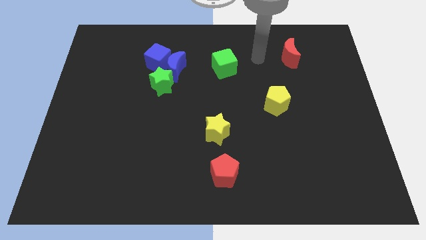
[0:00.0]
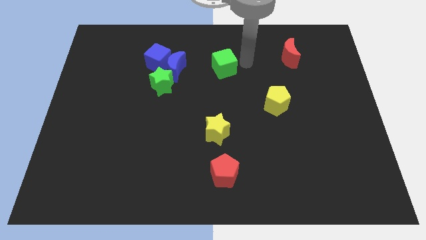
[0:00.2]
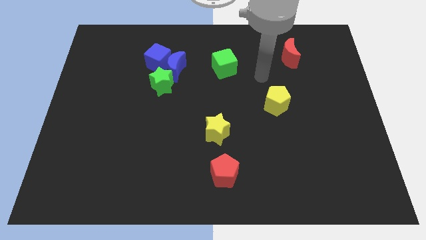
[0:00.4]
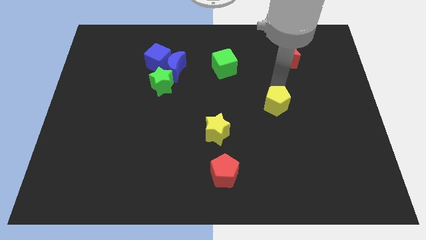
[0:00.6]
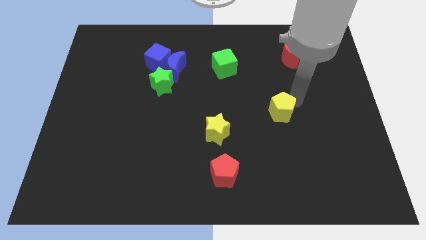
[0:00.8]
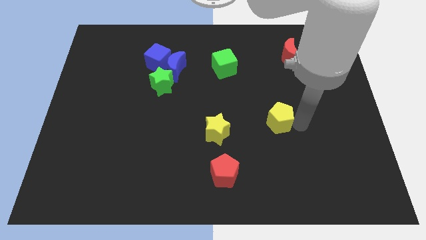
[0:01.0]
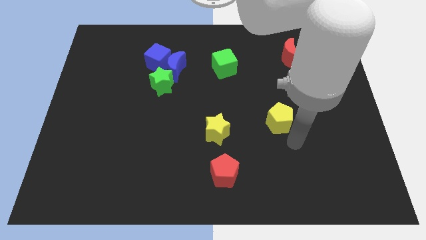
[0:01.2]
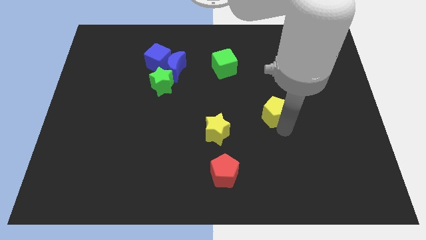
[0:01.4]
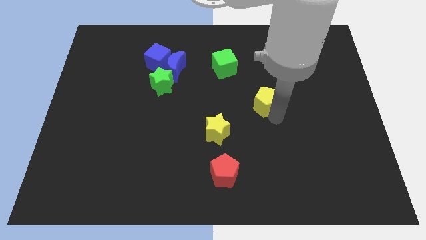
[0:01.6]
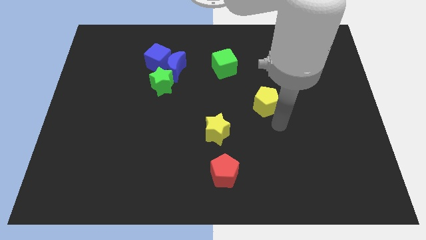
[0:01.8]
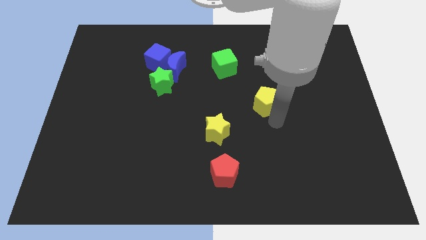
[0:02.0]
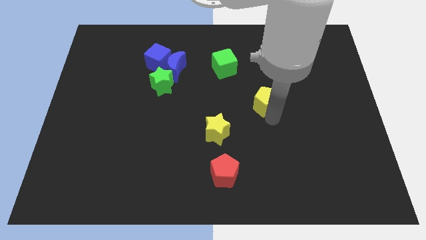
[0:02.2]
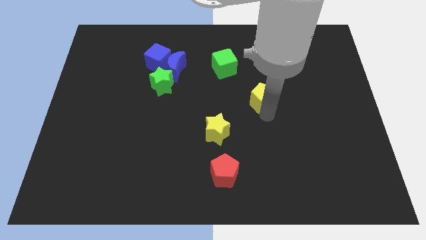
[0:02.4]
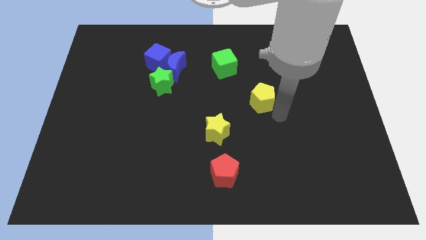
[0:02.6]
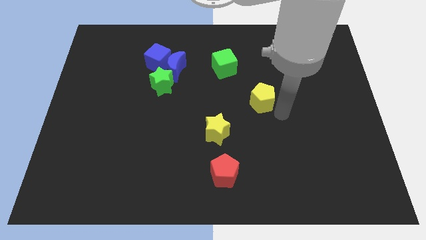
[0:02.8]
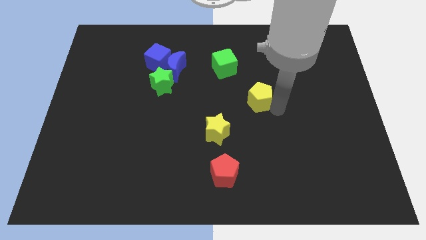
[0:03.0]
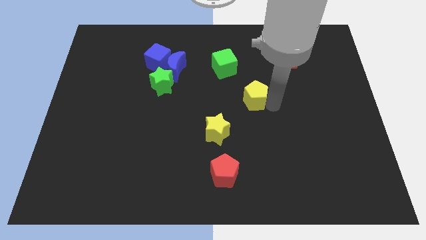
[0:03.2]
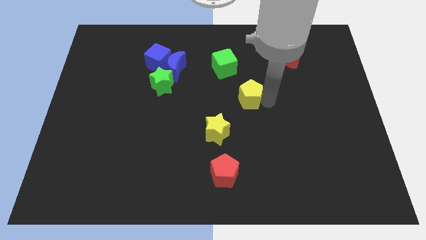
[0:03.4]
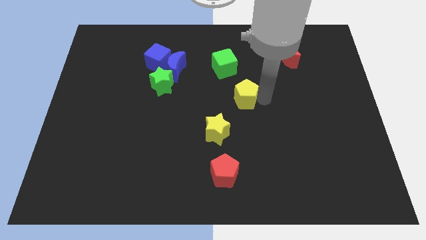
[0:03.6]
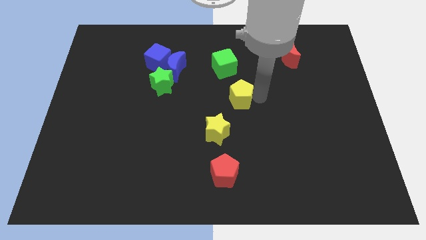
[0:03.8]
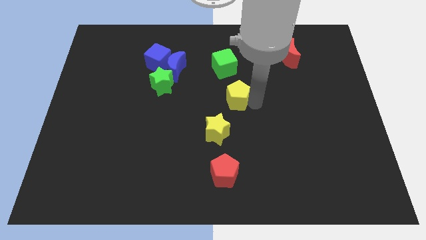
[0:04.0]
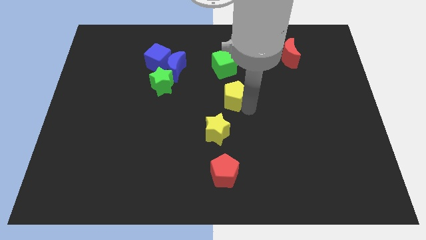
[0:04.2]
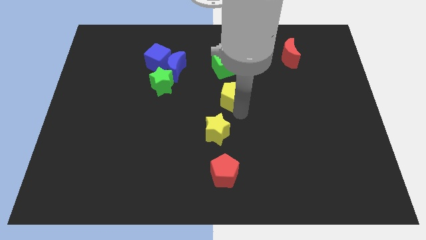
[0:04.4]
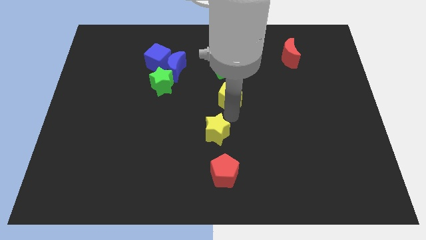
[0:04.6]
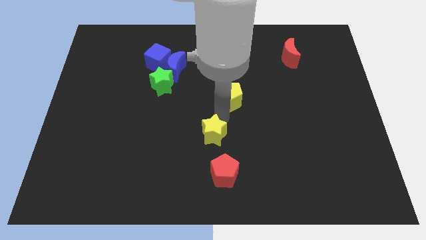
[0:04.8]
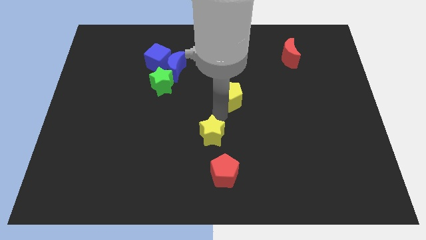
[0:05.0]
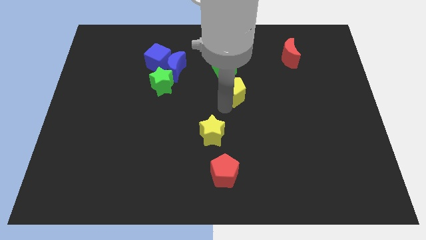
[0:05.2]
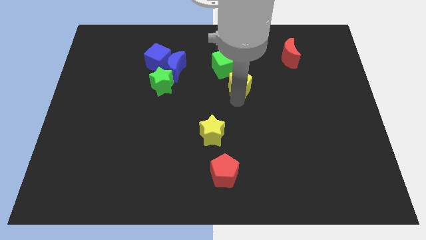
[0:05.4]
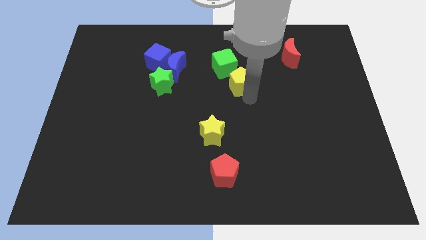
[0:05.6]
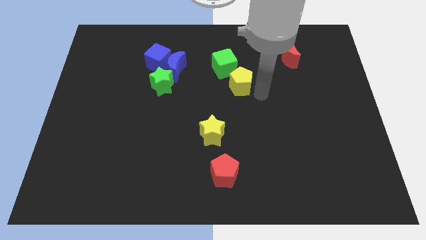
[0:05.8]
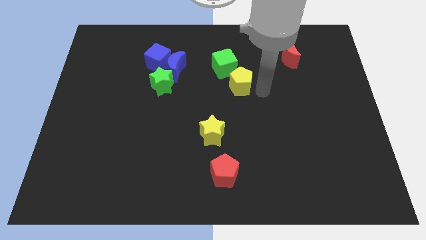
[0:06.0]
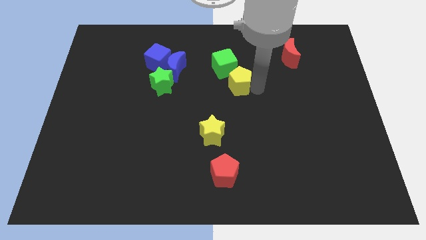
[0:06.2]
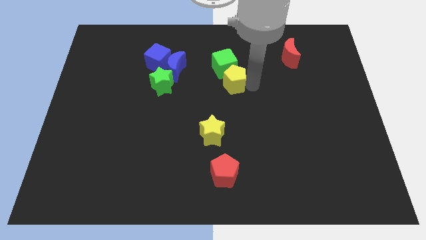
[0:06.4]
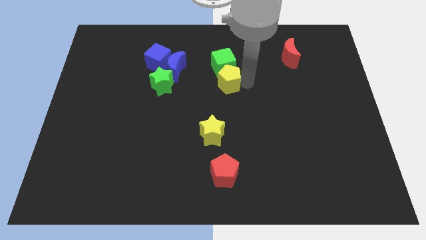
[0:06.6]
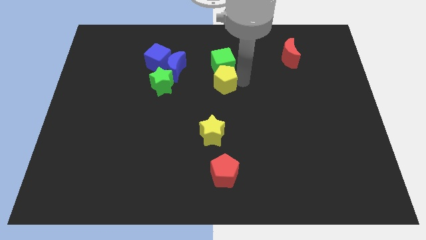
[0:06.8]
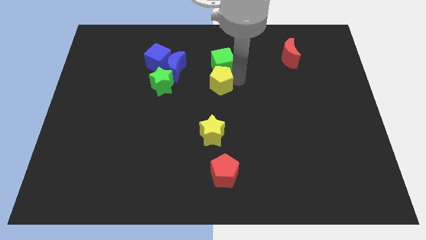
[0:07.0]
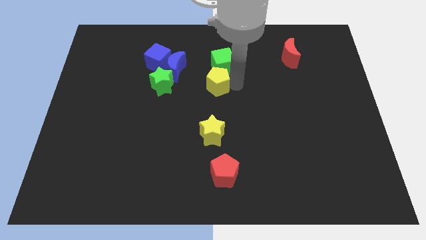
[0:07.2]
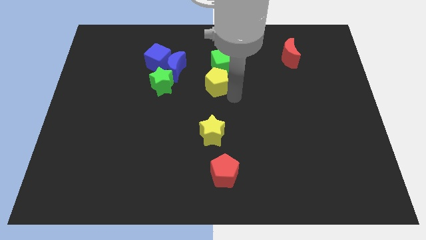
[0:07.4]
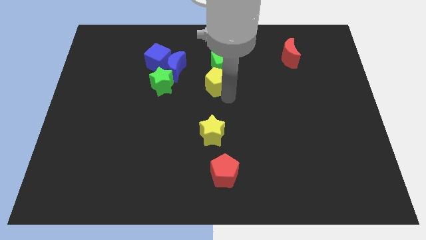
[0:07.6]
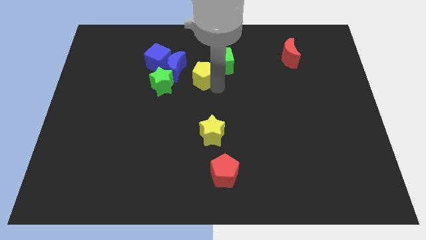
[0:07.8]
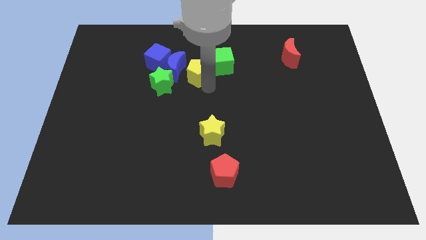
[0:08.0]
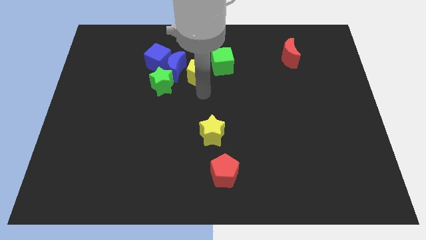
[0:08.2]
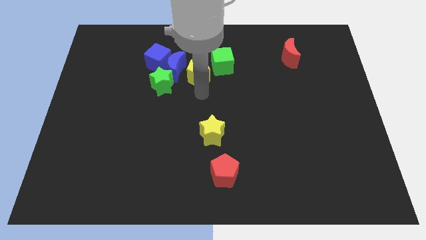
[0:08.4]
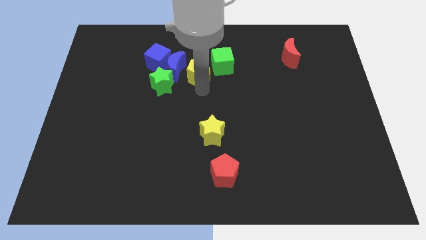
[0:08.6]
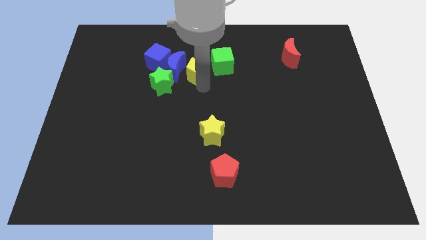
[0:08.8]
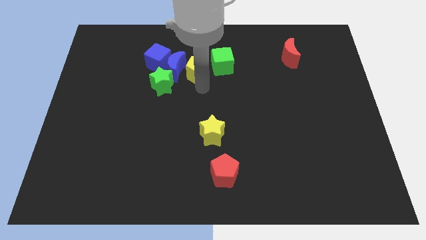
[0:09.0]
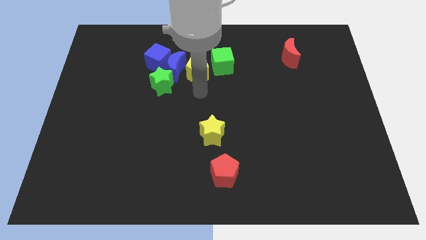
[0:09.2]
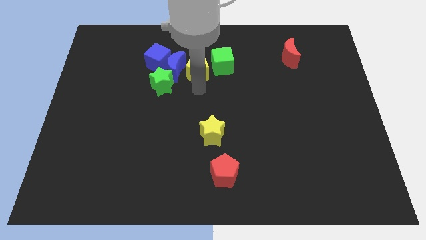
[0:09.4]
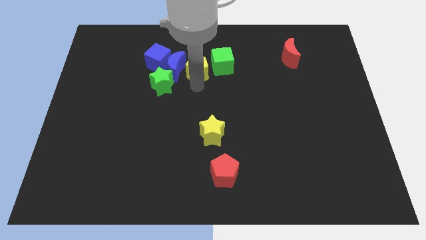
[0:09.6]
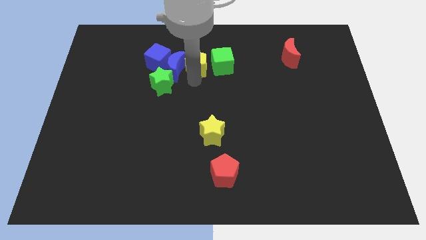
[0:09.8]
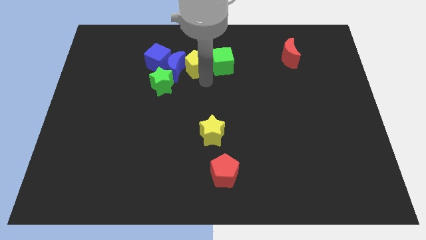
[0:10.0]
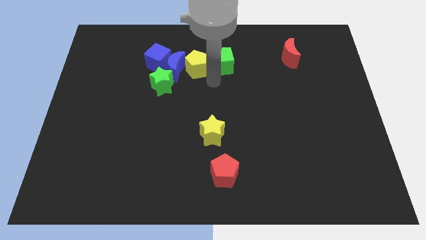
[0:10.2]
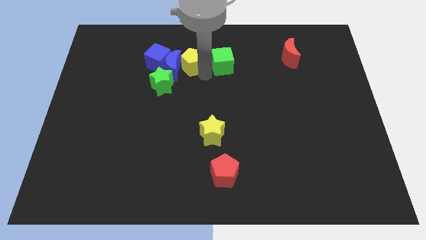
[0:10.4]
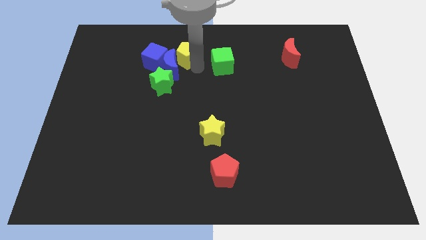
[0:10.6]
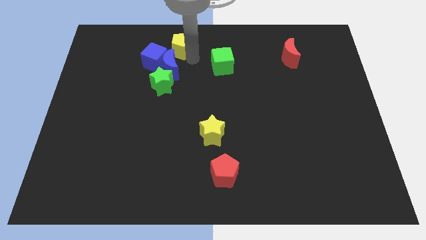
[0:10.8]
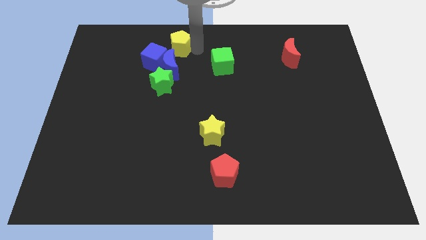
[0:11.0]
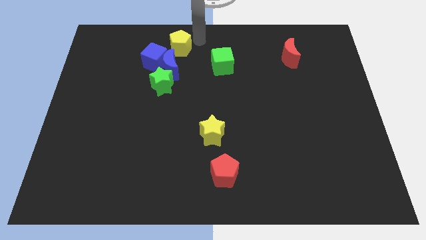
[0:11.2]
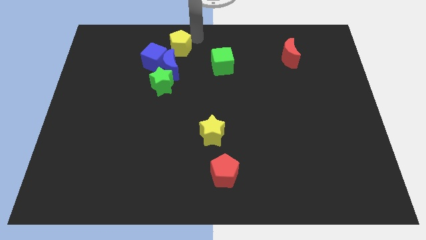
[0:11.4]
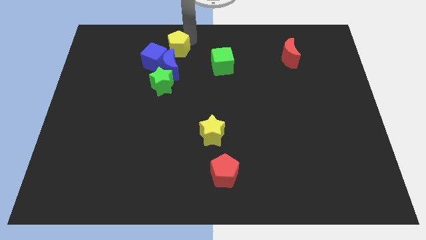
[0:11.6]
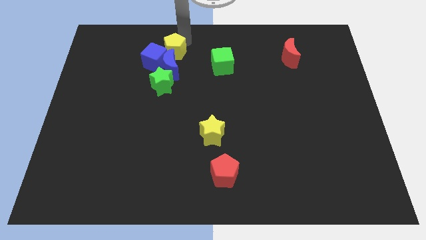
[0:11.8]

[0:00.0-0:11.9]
put the yellow pentagon close to the blue cube
